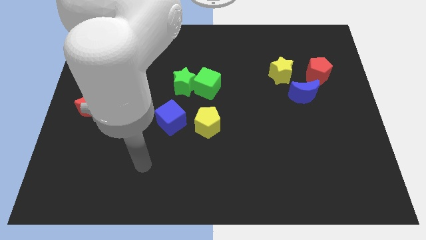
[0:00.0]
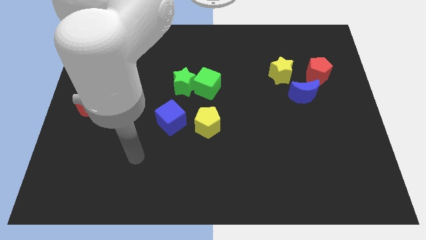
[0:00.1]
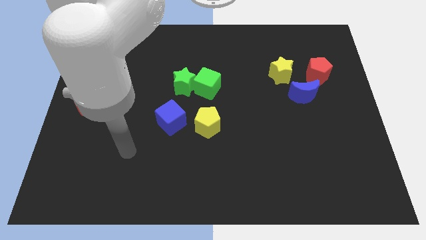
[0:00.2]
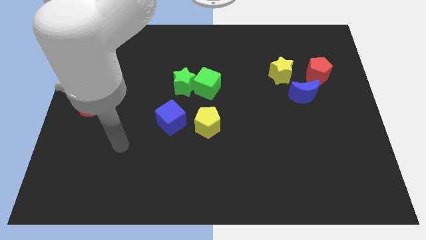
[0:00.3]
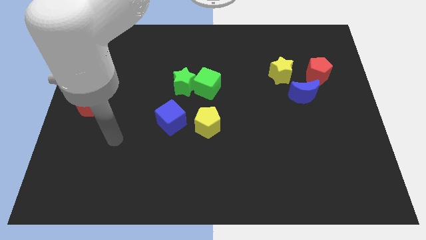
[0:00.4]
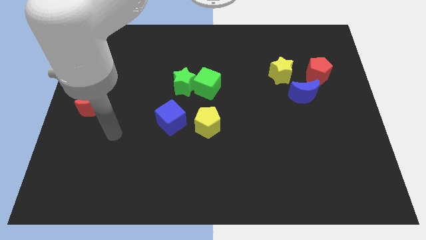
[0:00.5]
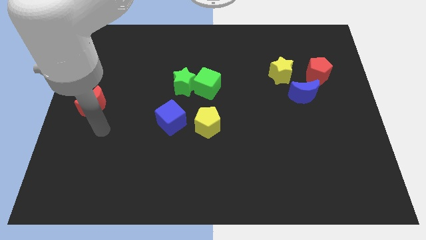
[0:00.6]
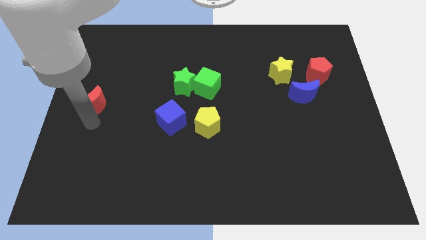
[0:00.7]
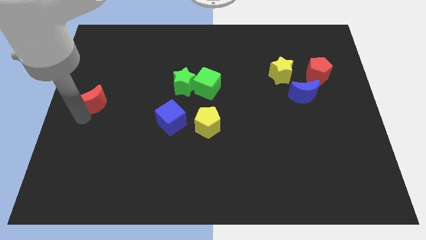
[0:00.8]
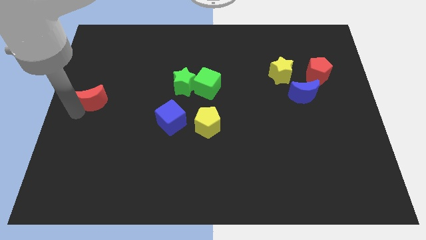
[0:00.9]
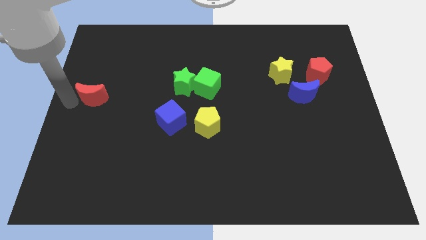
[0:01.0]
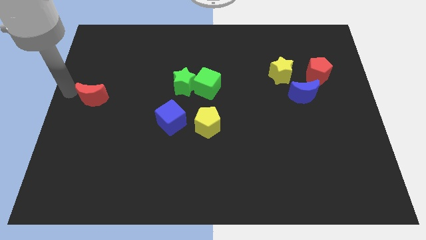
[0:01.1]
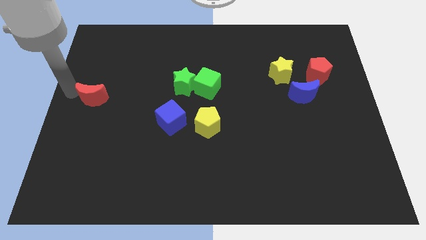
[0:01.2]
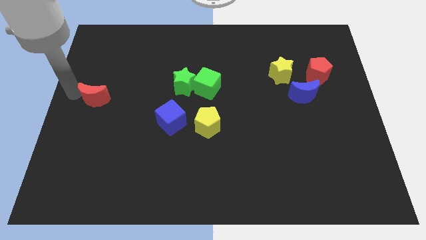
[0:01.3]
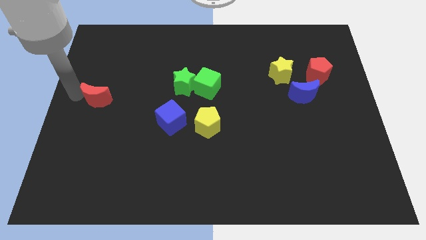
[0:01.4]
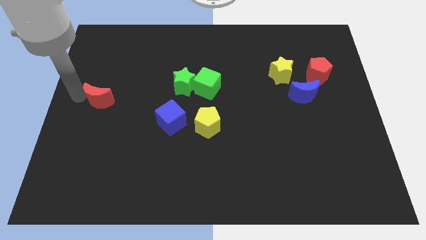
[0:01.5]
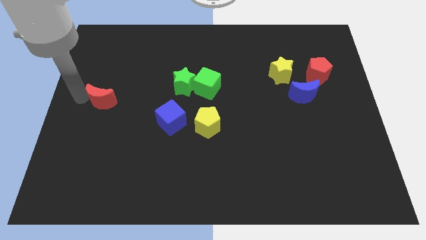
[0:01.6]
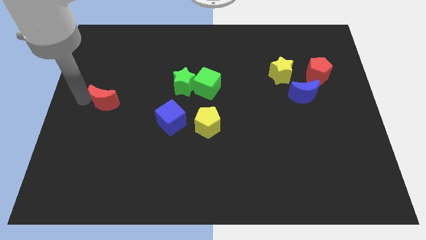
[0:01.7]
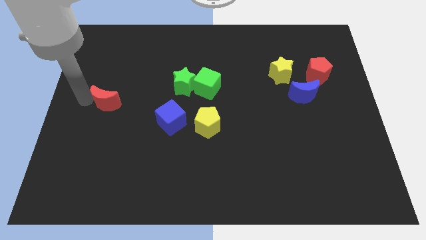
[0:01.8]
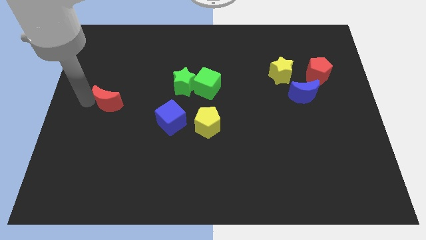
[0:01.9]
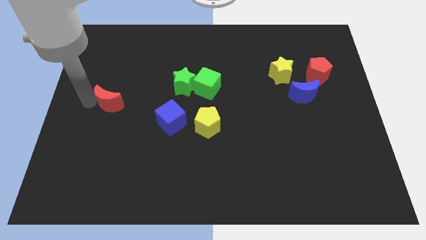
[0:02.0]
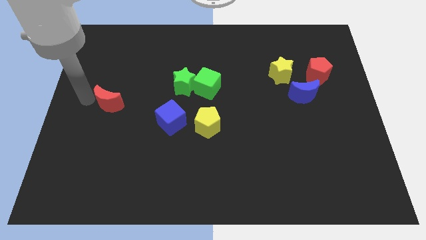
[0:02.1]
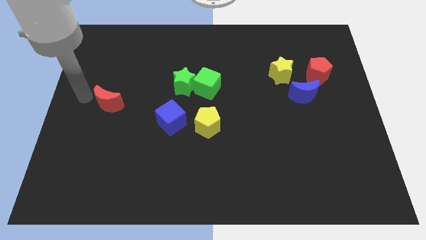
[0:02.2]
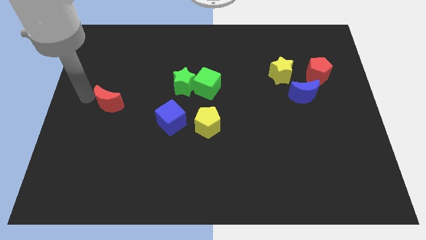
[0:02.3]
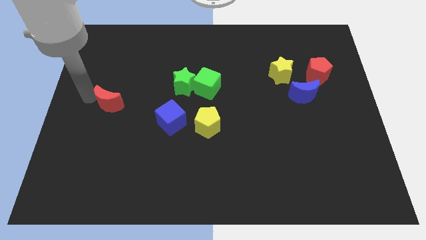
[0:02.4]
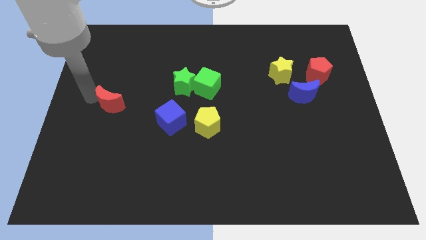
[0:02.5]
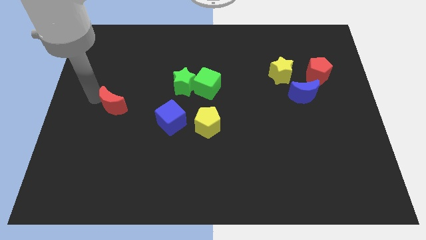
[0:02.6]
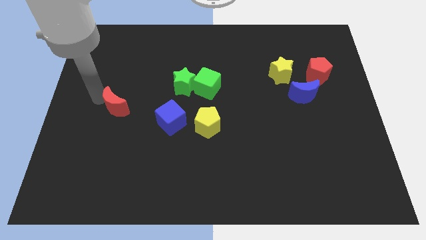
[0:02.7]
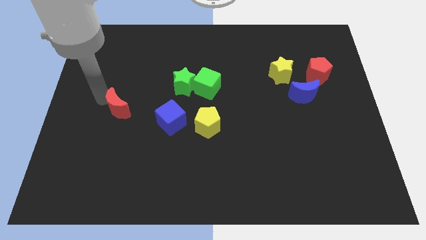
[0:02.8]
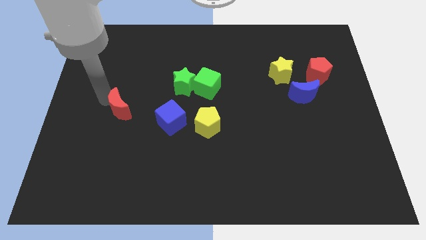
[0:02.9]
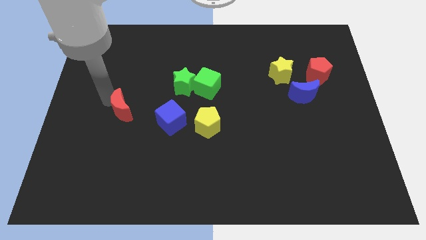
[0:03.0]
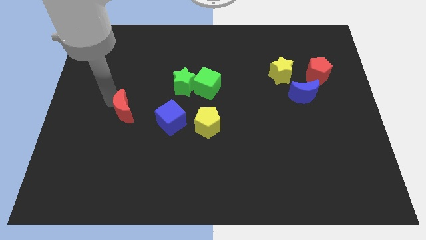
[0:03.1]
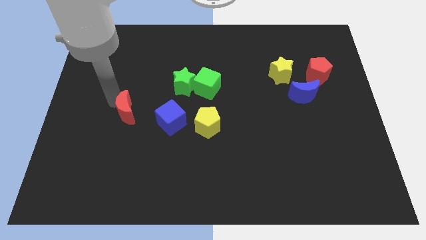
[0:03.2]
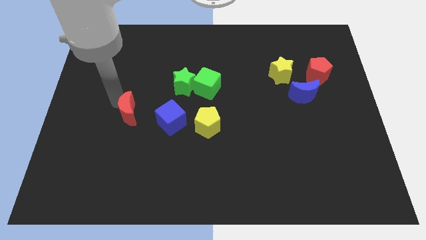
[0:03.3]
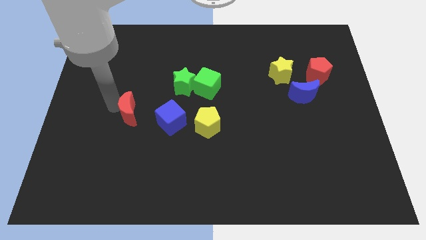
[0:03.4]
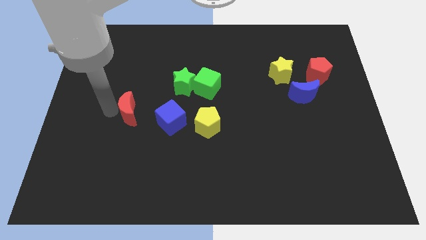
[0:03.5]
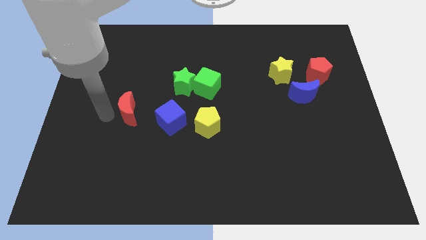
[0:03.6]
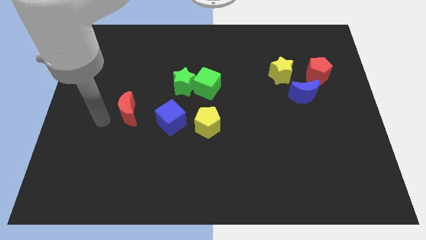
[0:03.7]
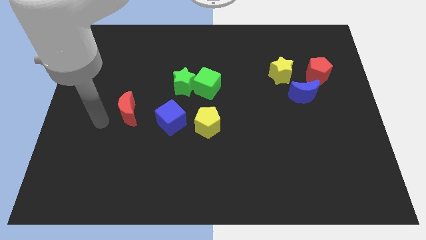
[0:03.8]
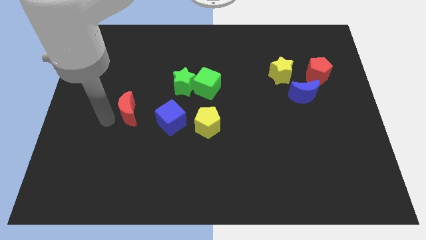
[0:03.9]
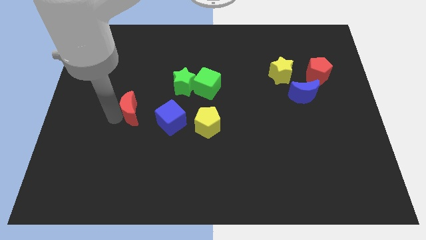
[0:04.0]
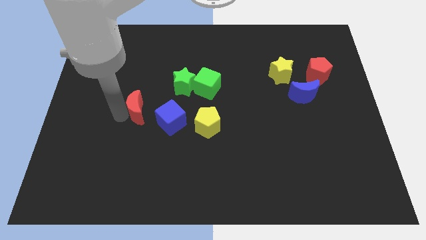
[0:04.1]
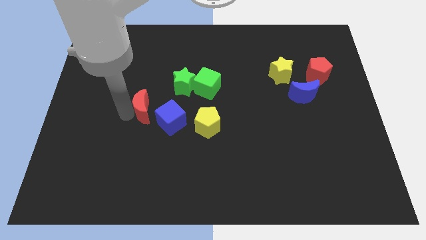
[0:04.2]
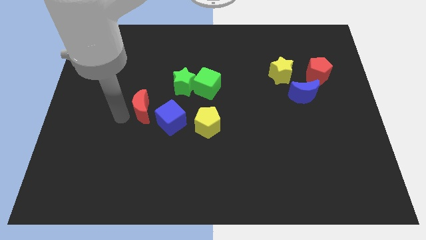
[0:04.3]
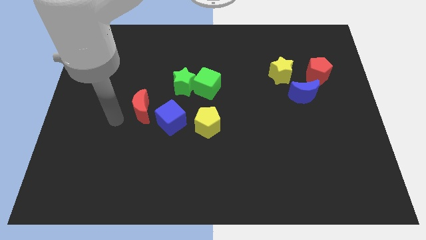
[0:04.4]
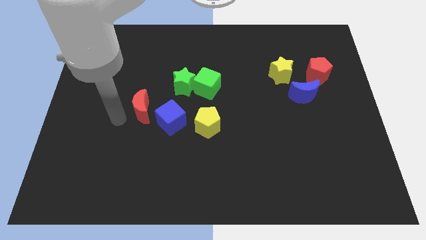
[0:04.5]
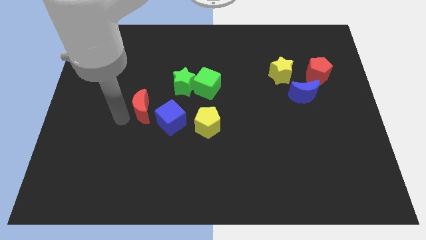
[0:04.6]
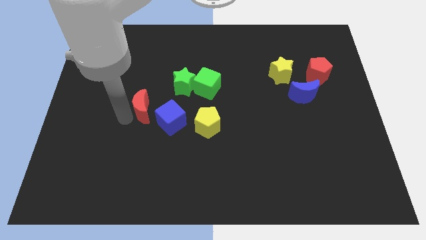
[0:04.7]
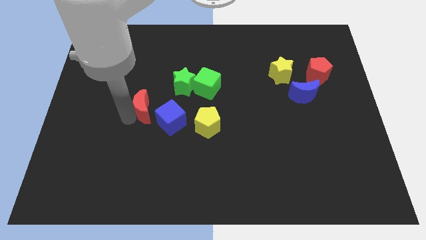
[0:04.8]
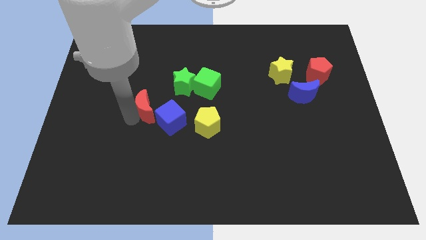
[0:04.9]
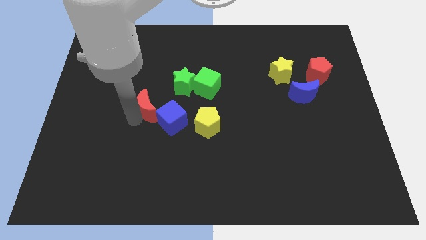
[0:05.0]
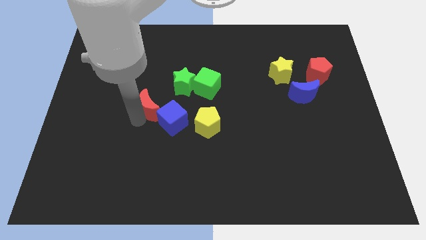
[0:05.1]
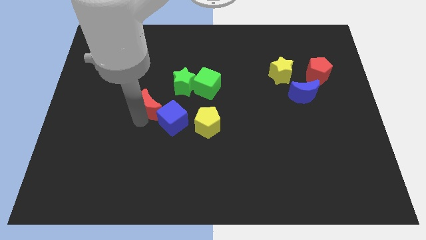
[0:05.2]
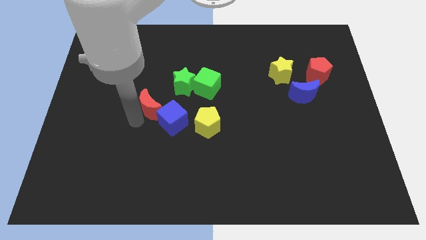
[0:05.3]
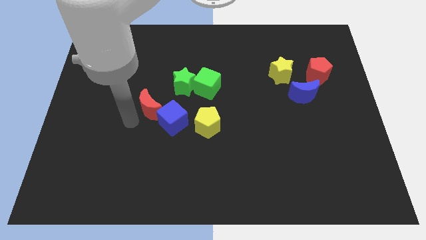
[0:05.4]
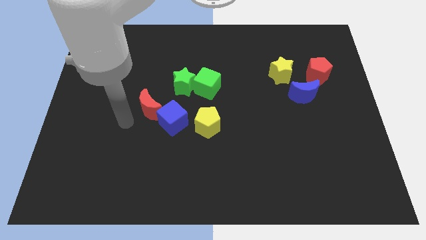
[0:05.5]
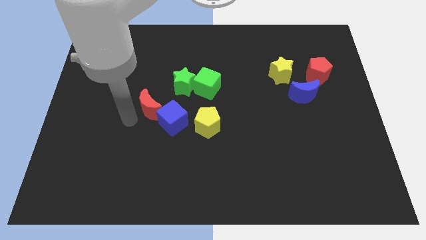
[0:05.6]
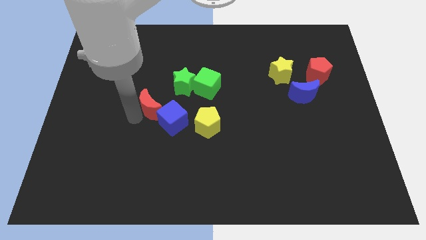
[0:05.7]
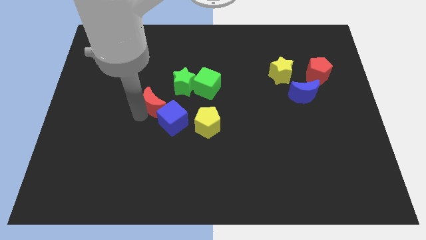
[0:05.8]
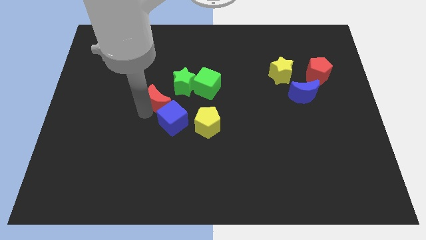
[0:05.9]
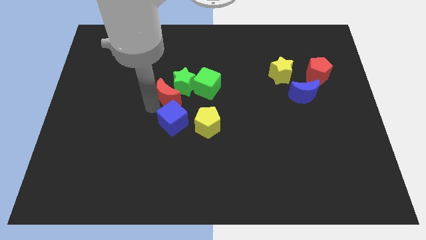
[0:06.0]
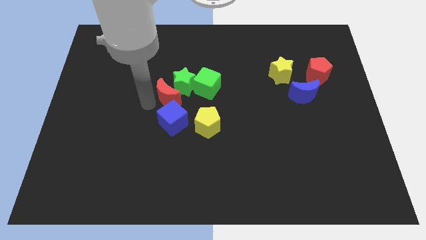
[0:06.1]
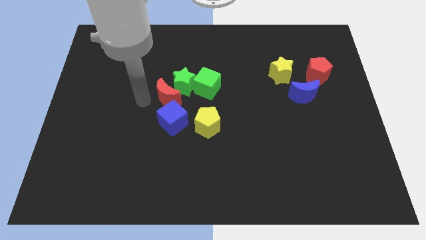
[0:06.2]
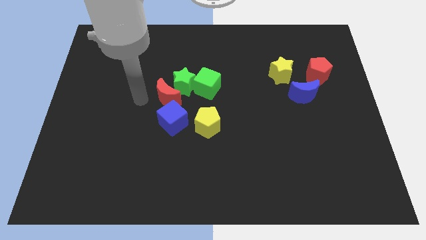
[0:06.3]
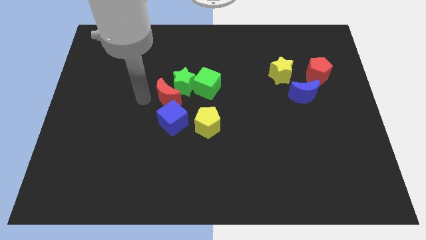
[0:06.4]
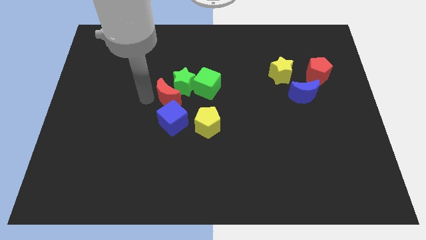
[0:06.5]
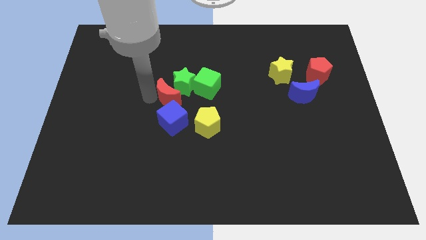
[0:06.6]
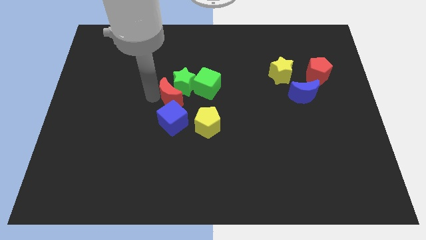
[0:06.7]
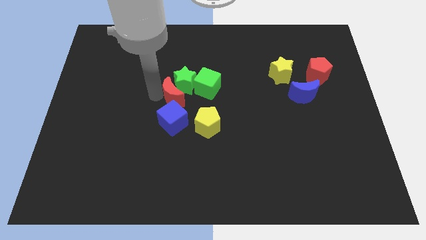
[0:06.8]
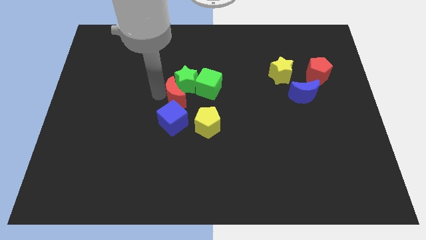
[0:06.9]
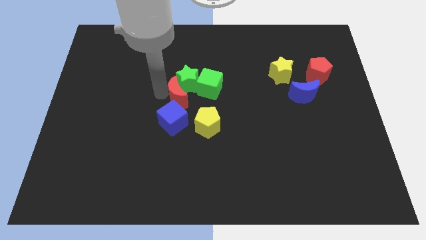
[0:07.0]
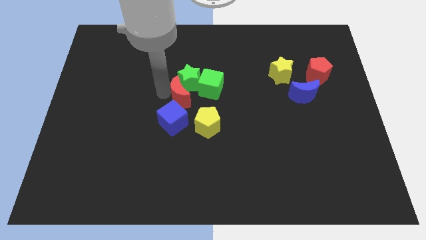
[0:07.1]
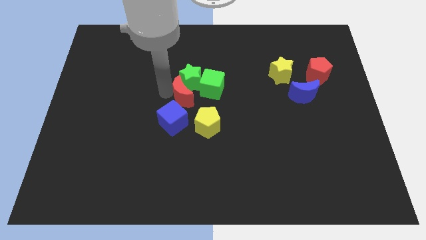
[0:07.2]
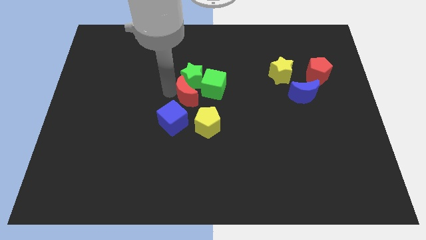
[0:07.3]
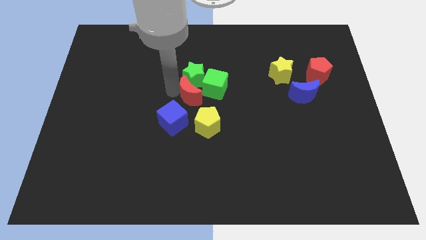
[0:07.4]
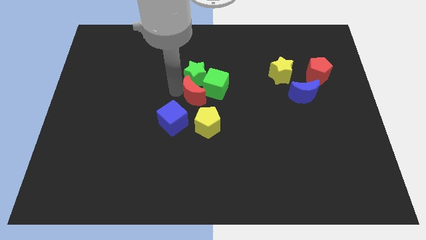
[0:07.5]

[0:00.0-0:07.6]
push the red moon close to the green cube
